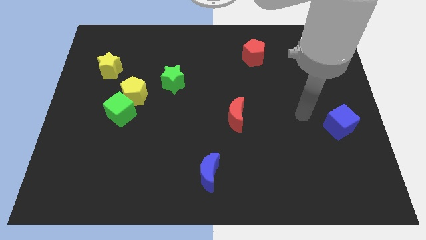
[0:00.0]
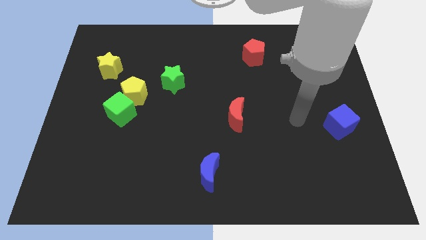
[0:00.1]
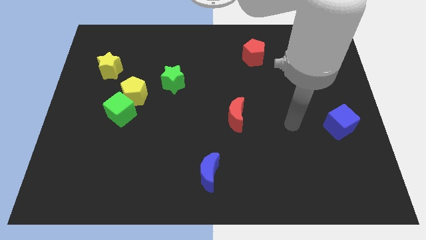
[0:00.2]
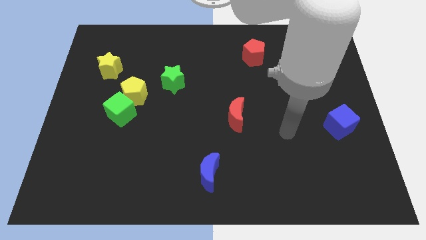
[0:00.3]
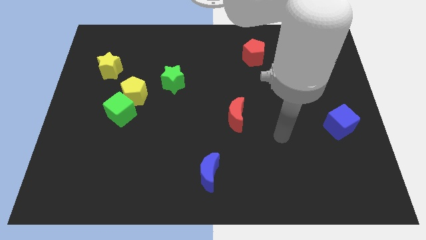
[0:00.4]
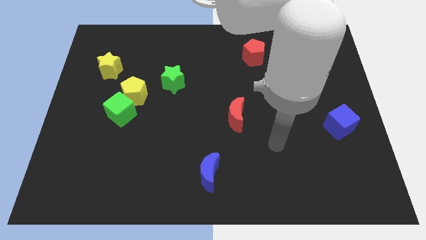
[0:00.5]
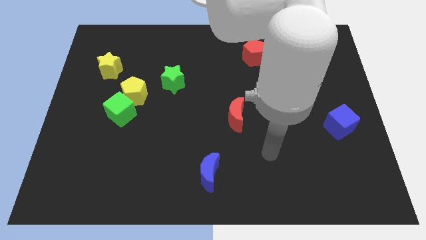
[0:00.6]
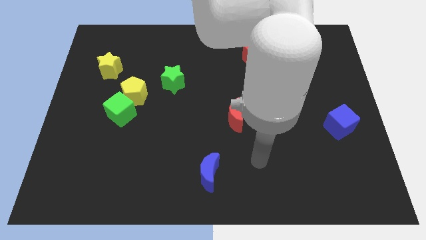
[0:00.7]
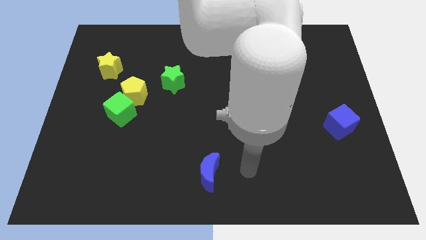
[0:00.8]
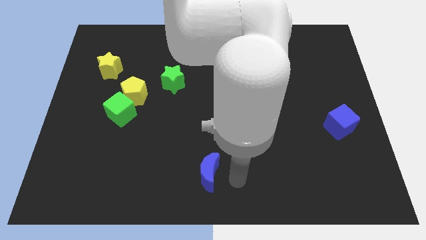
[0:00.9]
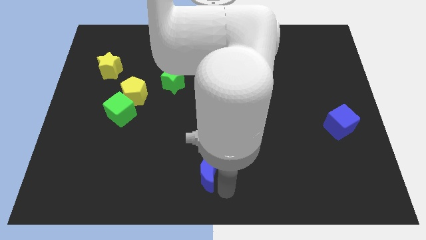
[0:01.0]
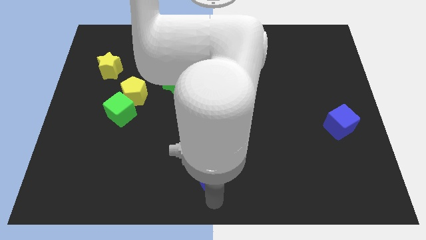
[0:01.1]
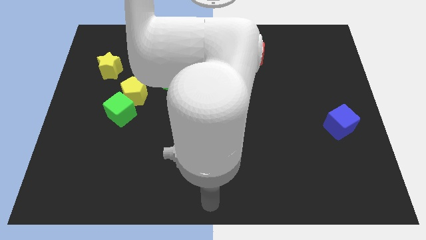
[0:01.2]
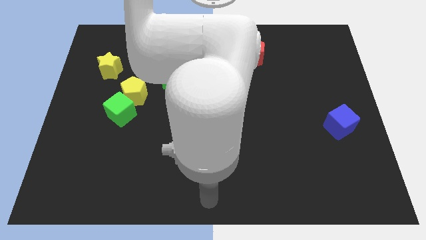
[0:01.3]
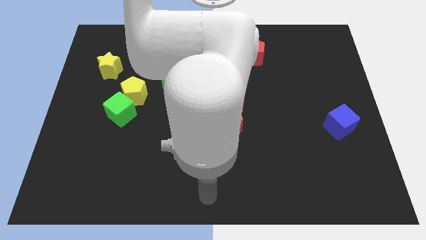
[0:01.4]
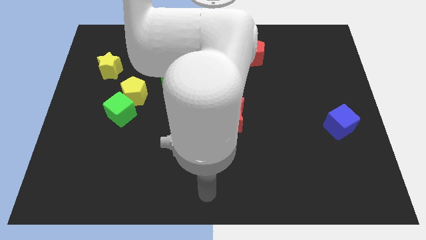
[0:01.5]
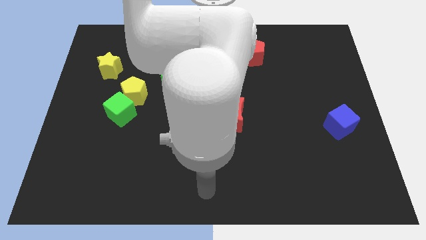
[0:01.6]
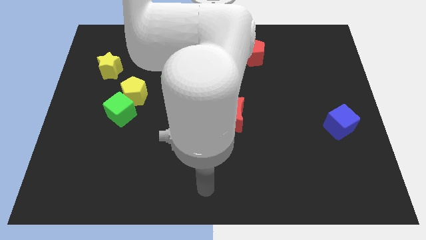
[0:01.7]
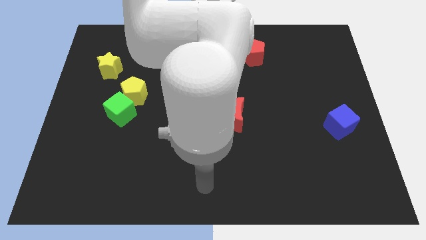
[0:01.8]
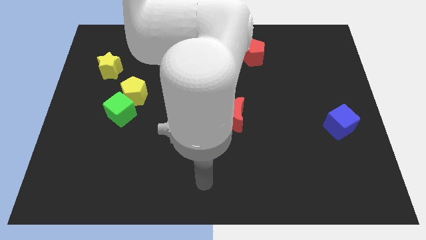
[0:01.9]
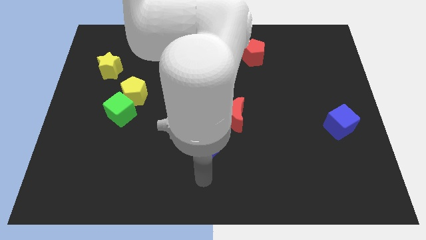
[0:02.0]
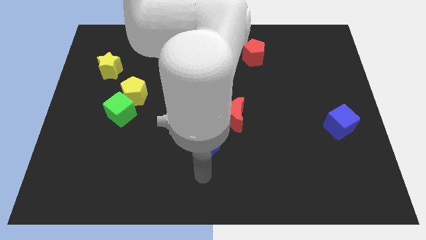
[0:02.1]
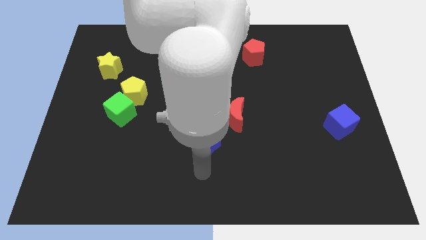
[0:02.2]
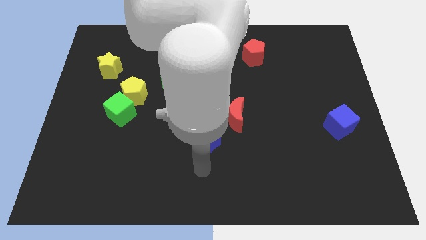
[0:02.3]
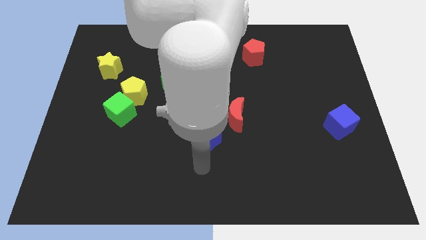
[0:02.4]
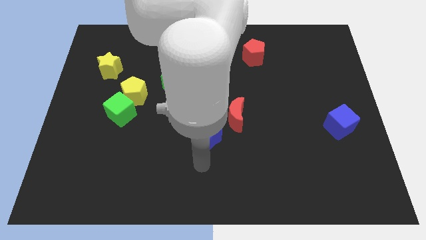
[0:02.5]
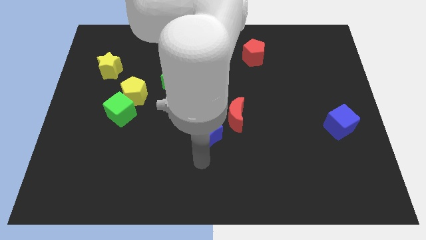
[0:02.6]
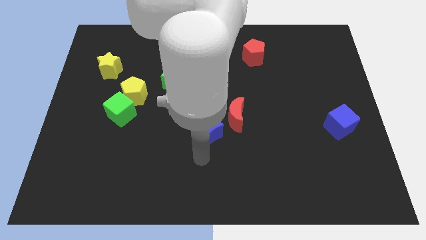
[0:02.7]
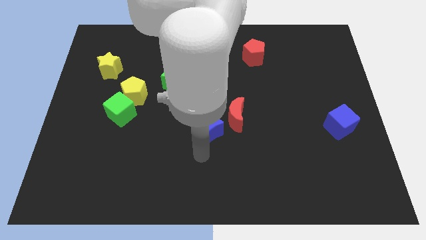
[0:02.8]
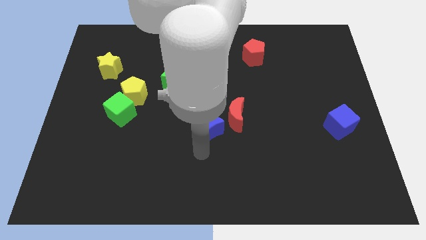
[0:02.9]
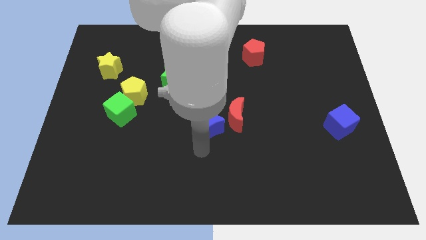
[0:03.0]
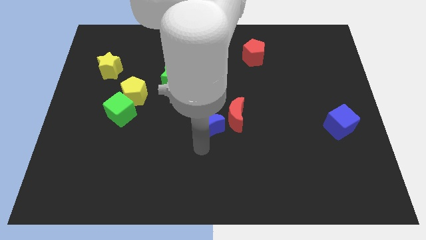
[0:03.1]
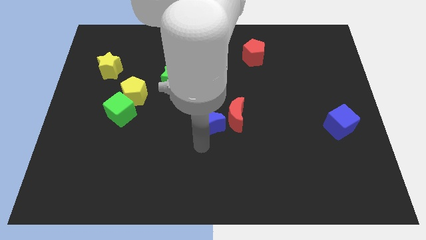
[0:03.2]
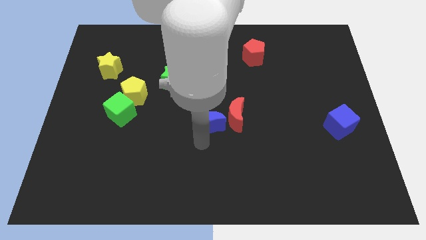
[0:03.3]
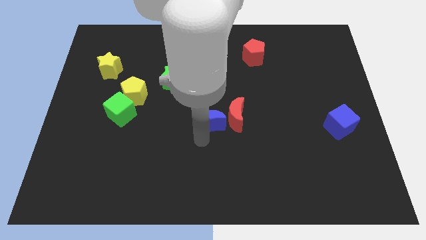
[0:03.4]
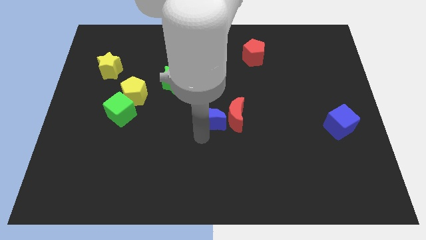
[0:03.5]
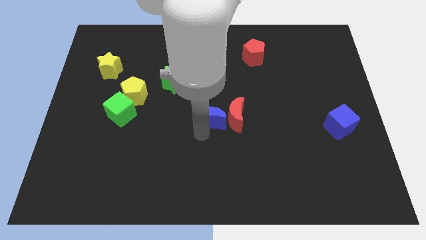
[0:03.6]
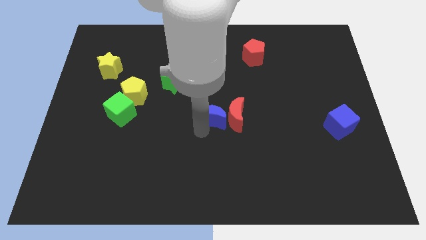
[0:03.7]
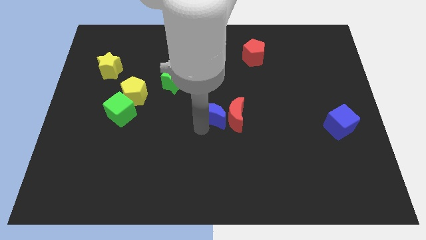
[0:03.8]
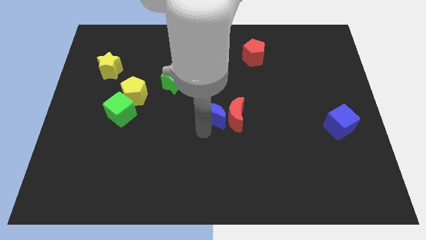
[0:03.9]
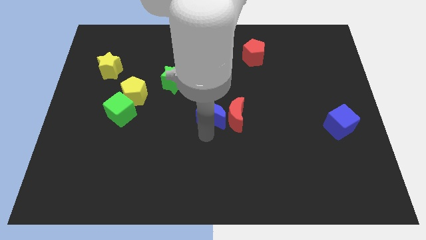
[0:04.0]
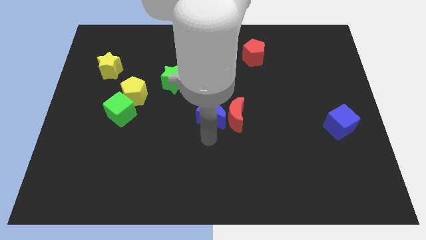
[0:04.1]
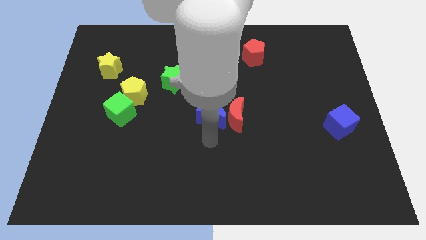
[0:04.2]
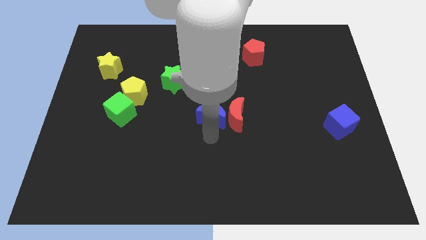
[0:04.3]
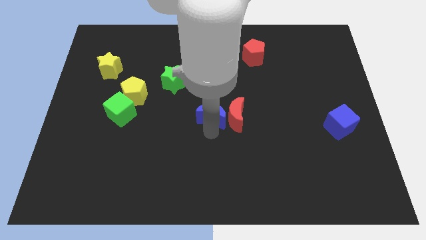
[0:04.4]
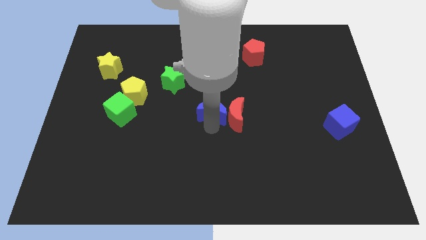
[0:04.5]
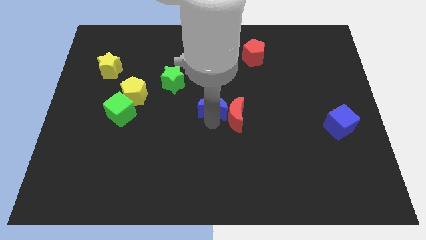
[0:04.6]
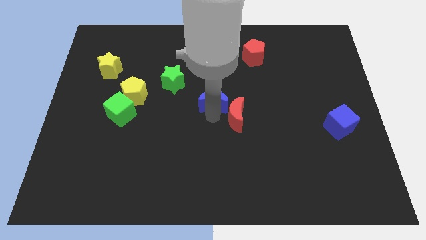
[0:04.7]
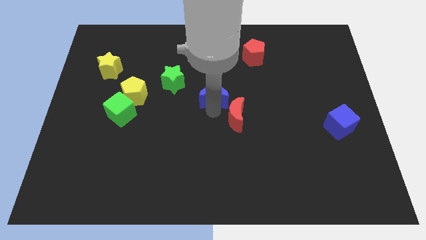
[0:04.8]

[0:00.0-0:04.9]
push the blue moon upwards

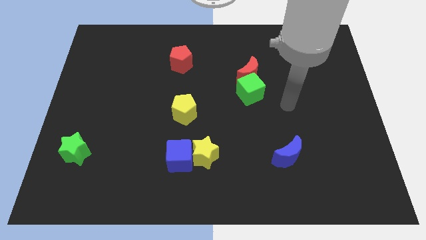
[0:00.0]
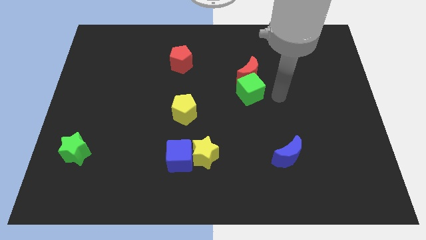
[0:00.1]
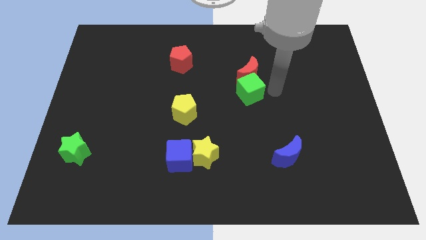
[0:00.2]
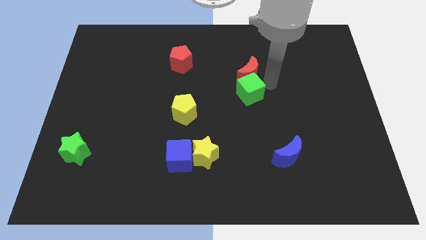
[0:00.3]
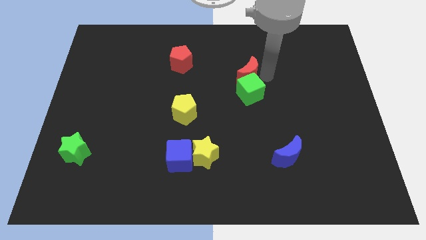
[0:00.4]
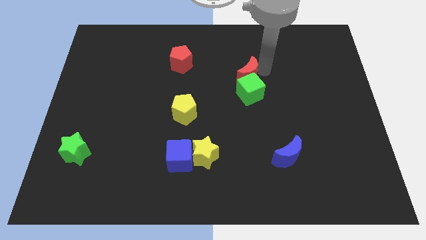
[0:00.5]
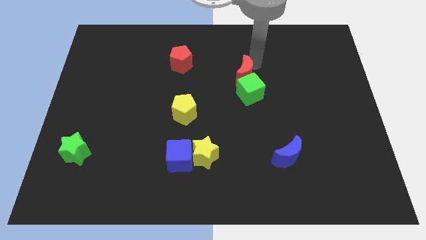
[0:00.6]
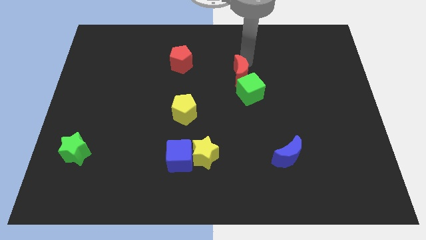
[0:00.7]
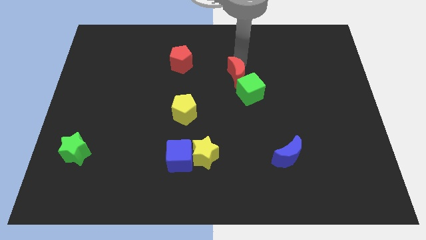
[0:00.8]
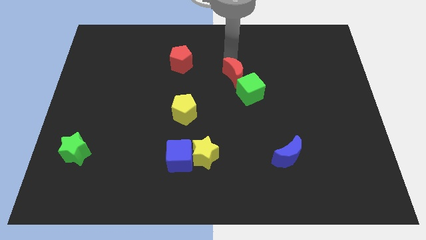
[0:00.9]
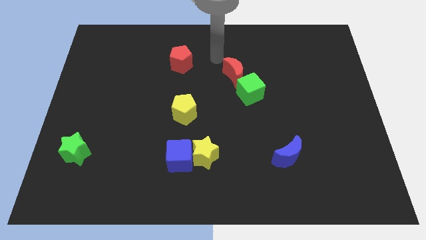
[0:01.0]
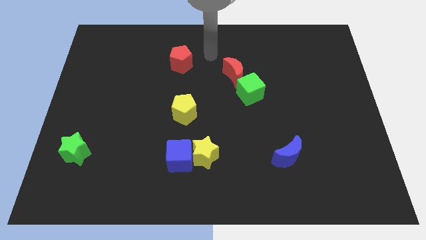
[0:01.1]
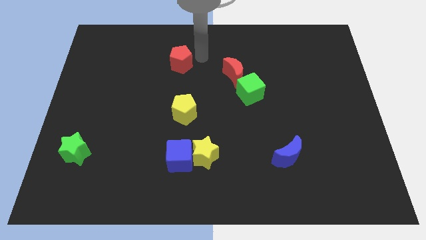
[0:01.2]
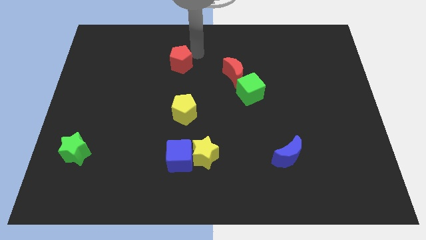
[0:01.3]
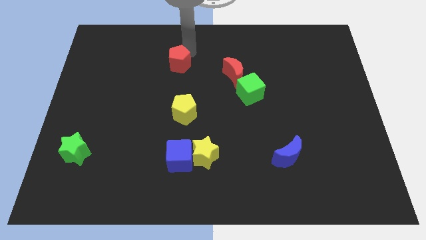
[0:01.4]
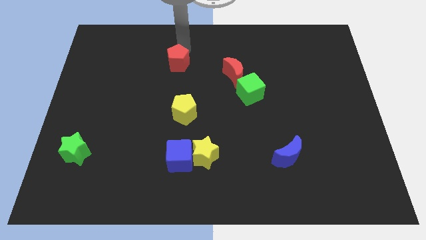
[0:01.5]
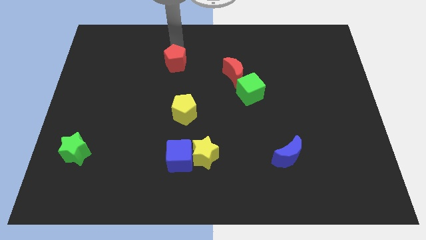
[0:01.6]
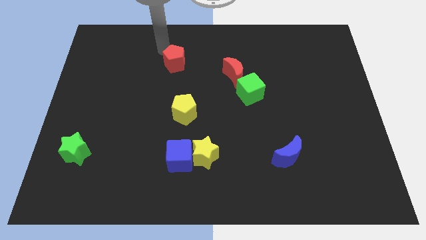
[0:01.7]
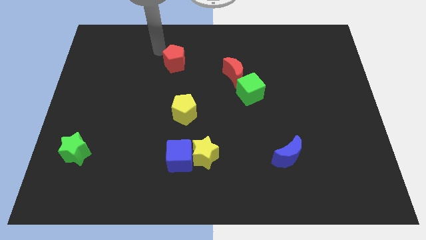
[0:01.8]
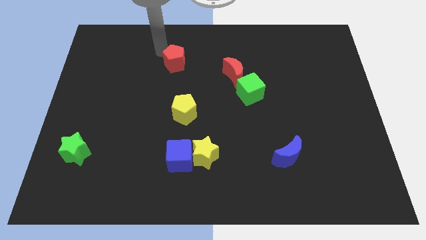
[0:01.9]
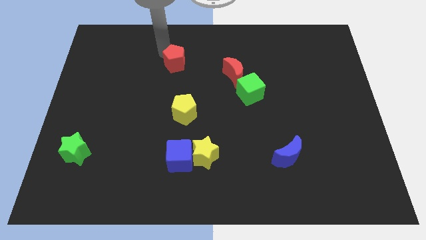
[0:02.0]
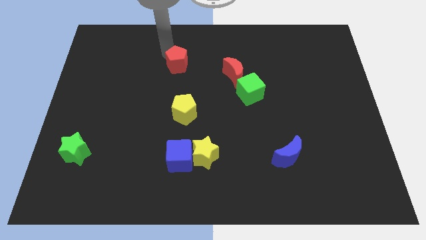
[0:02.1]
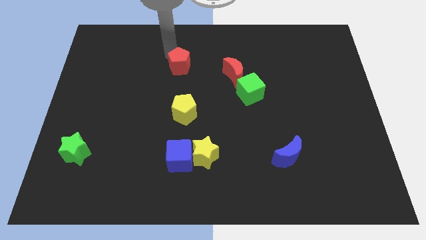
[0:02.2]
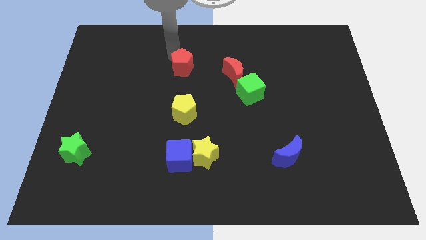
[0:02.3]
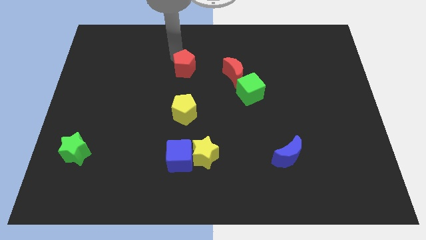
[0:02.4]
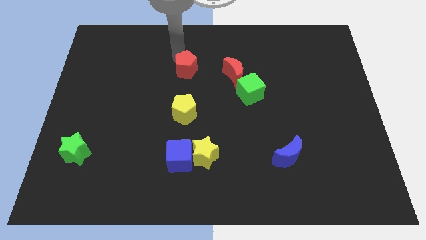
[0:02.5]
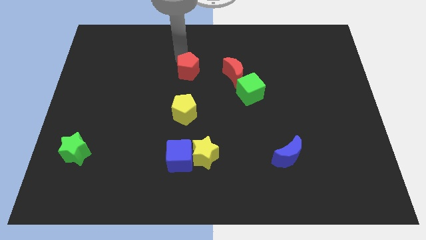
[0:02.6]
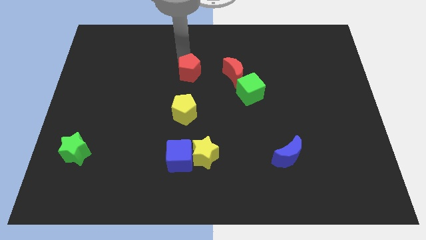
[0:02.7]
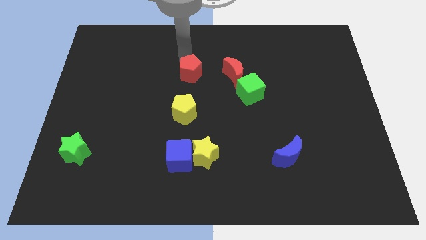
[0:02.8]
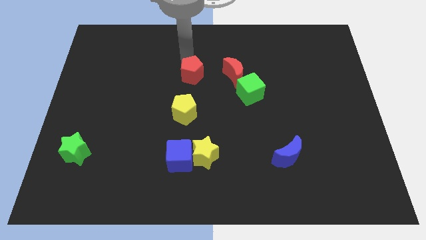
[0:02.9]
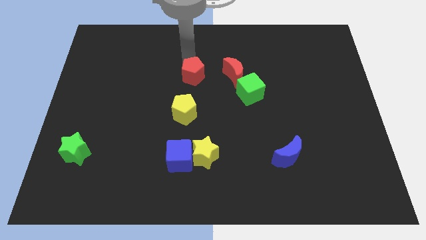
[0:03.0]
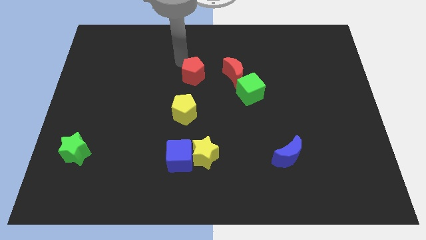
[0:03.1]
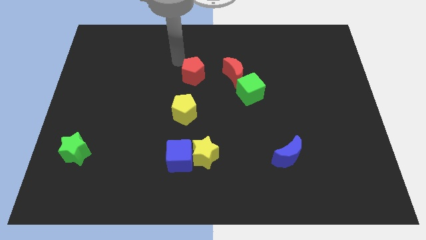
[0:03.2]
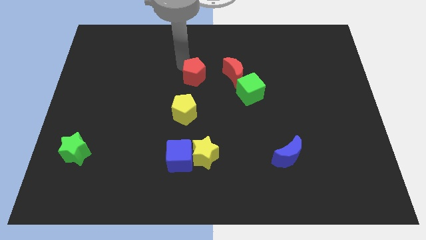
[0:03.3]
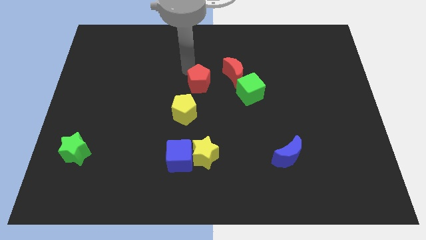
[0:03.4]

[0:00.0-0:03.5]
slightly slide the red pentagon down and right
